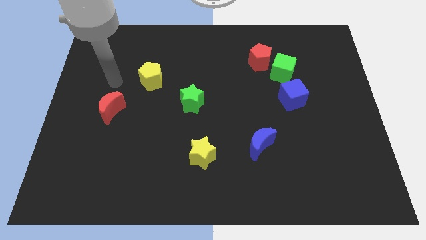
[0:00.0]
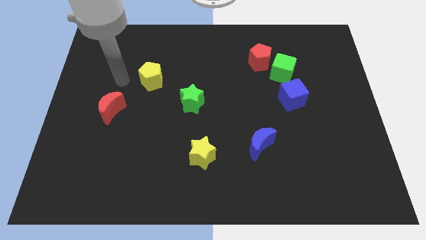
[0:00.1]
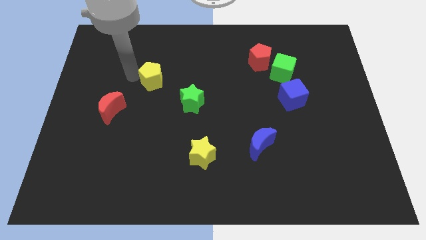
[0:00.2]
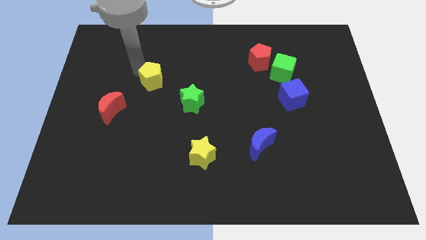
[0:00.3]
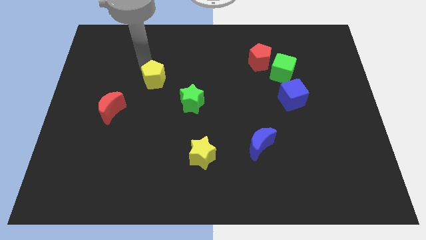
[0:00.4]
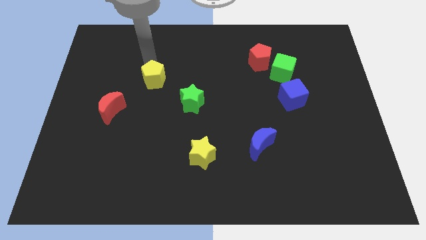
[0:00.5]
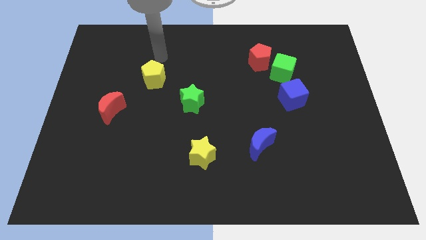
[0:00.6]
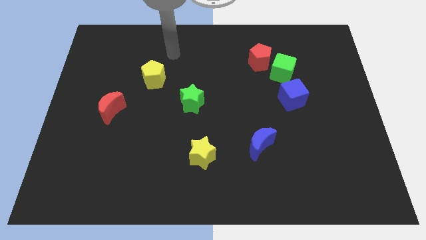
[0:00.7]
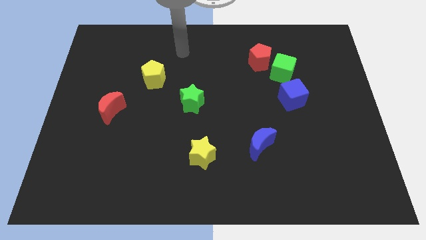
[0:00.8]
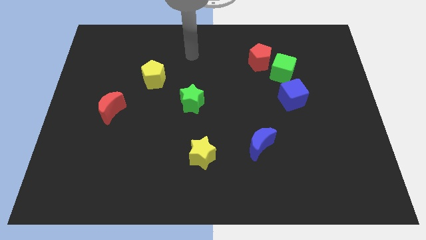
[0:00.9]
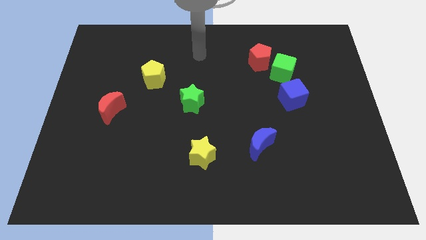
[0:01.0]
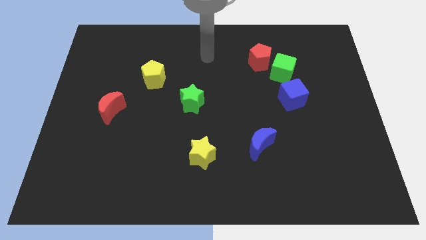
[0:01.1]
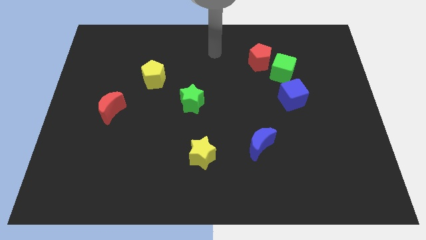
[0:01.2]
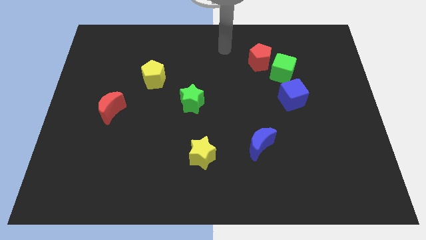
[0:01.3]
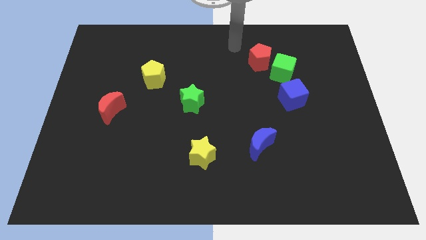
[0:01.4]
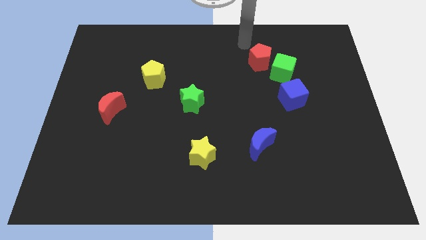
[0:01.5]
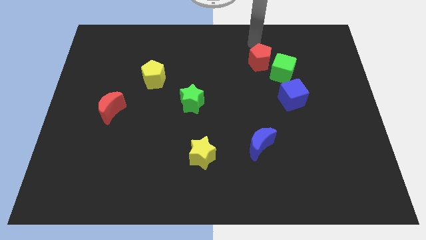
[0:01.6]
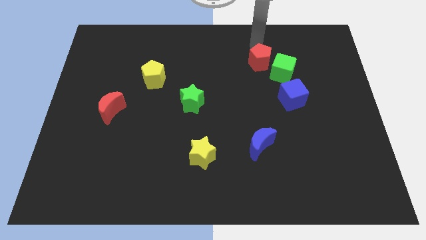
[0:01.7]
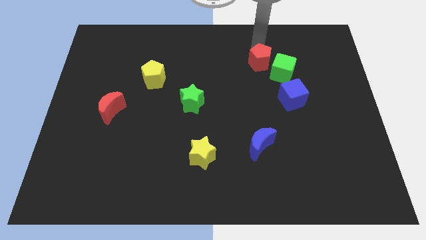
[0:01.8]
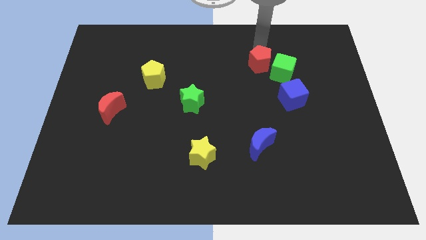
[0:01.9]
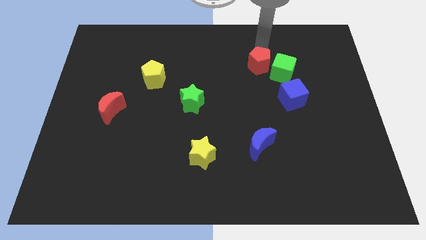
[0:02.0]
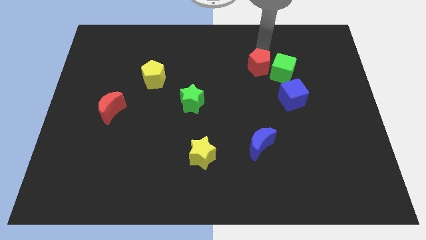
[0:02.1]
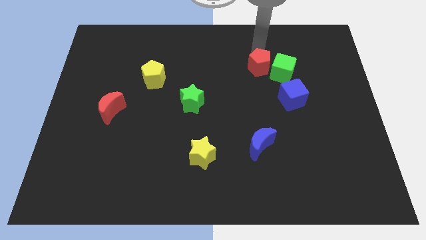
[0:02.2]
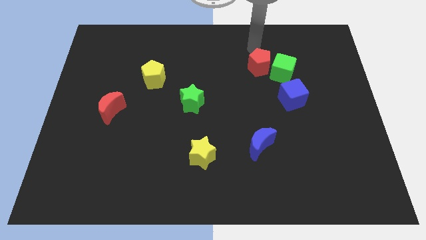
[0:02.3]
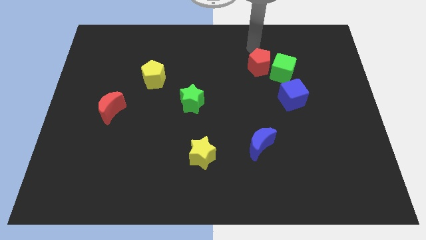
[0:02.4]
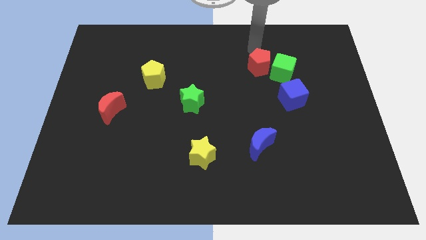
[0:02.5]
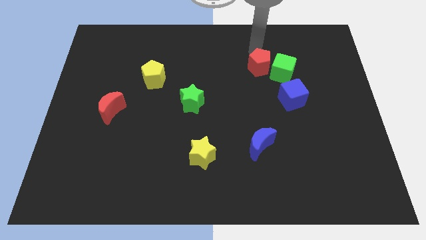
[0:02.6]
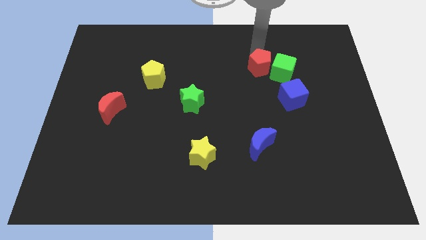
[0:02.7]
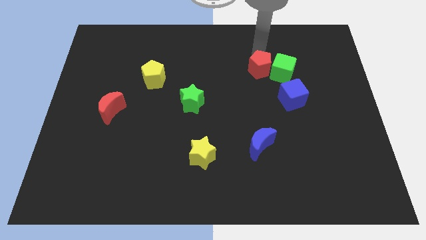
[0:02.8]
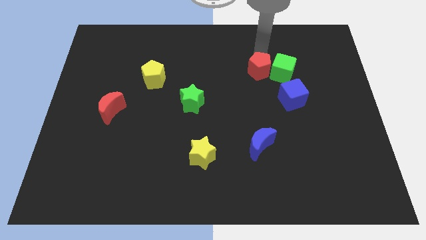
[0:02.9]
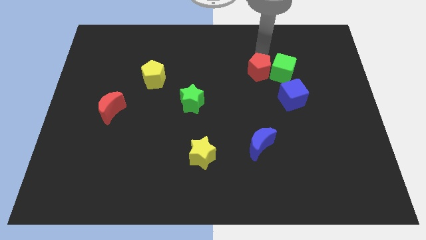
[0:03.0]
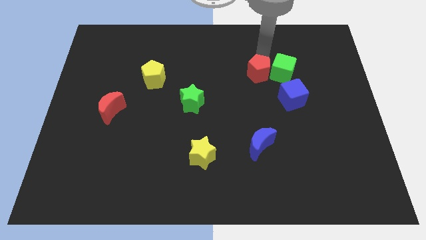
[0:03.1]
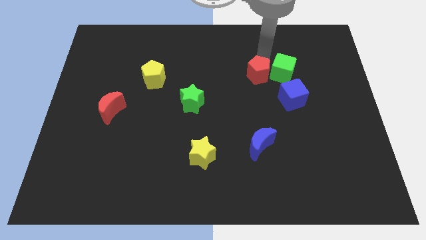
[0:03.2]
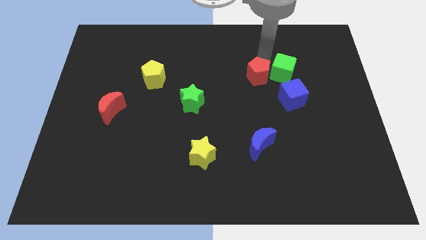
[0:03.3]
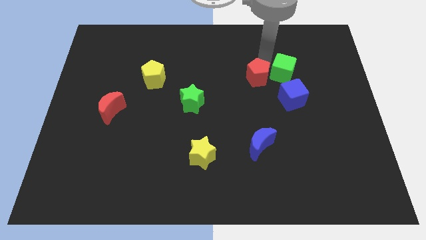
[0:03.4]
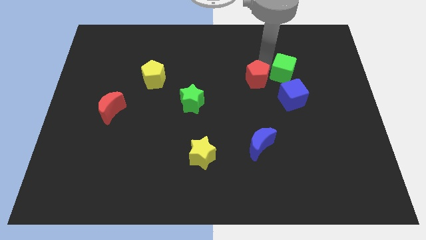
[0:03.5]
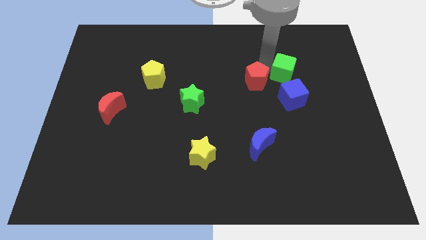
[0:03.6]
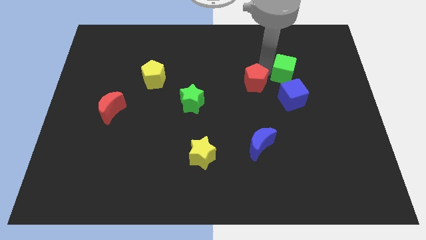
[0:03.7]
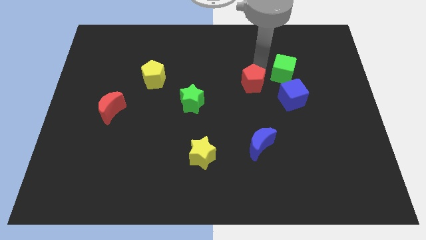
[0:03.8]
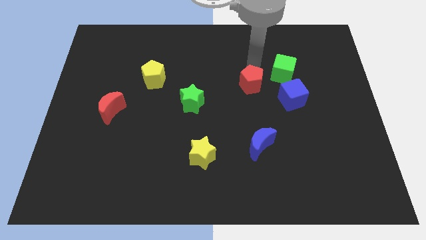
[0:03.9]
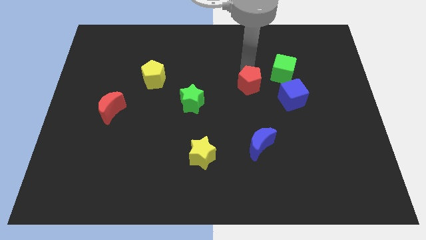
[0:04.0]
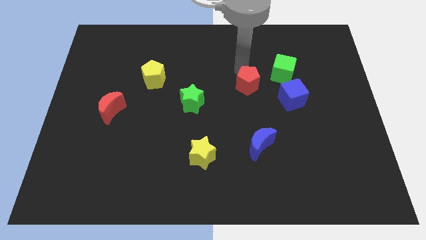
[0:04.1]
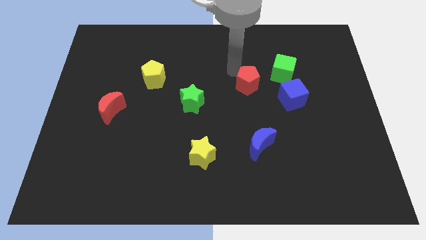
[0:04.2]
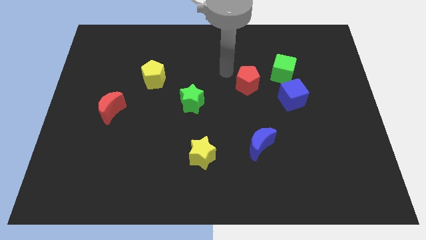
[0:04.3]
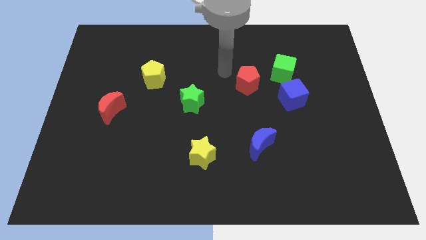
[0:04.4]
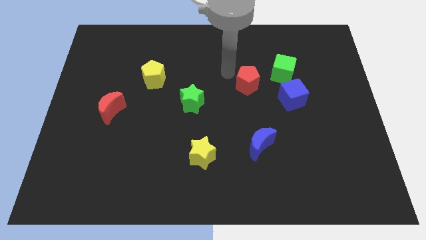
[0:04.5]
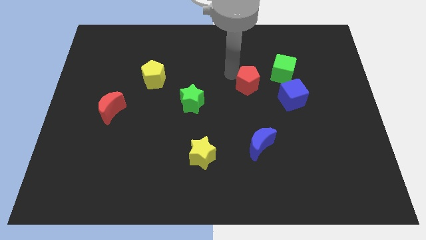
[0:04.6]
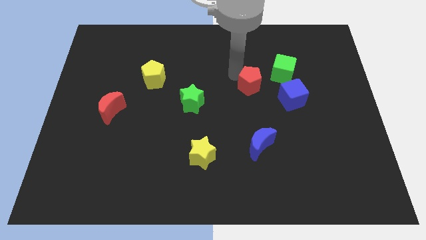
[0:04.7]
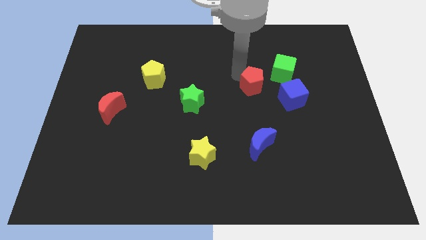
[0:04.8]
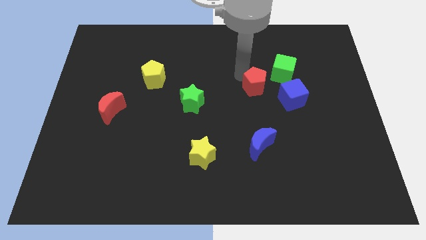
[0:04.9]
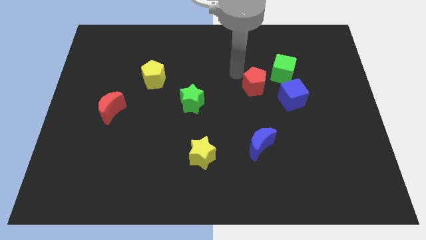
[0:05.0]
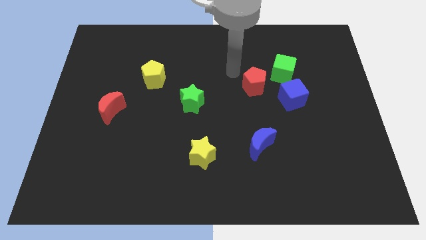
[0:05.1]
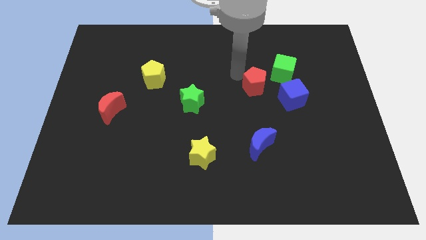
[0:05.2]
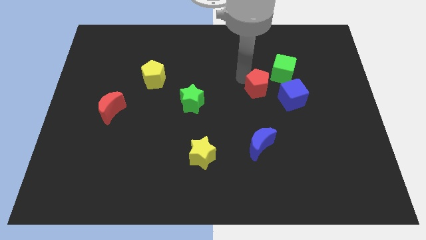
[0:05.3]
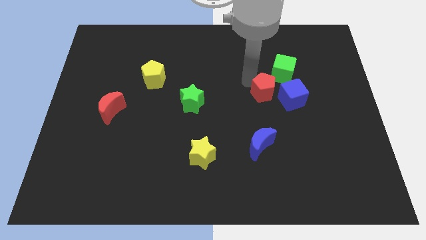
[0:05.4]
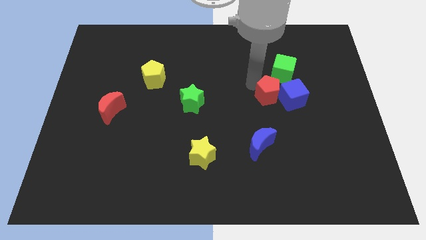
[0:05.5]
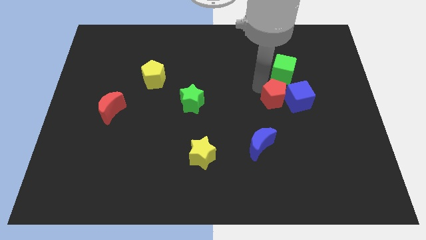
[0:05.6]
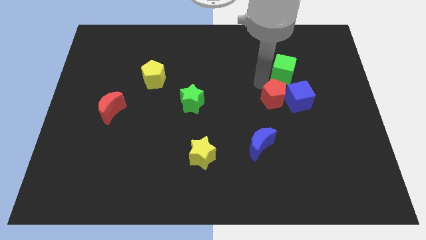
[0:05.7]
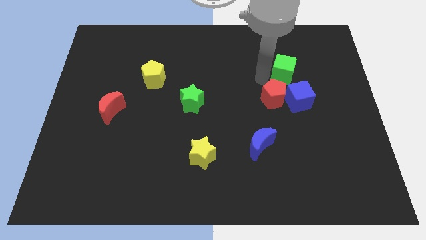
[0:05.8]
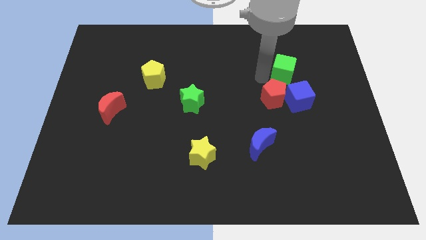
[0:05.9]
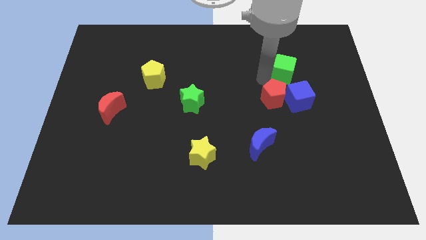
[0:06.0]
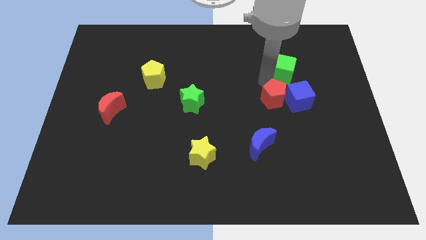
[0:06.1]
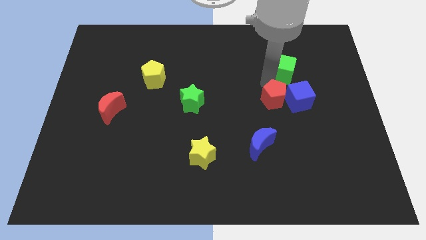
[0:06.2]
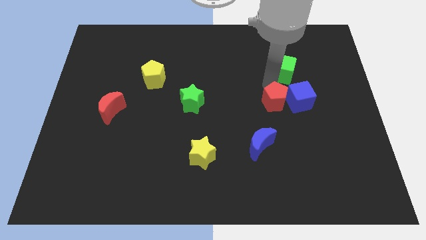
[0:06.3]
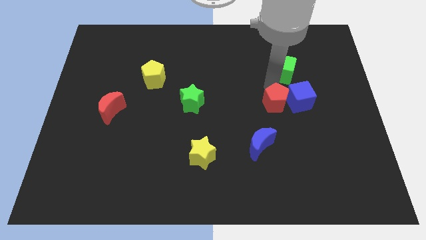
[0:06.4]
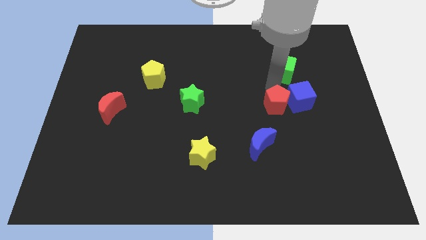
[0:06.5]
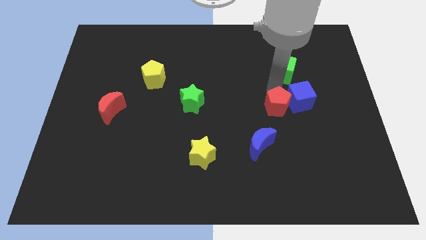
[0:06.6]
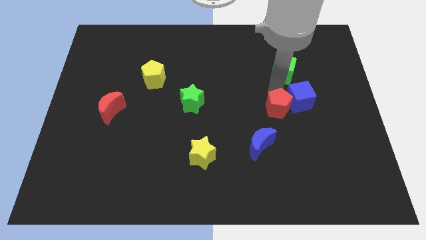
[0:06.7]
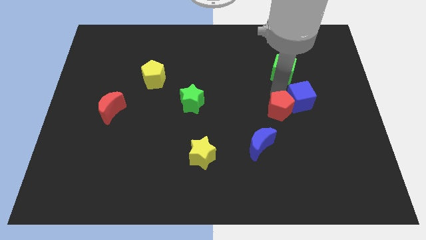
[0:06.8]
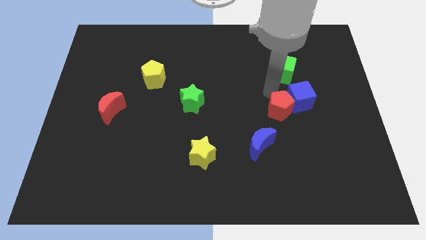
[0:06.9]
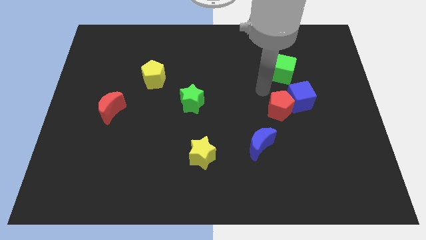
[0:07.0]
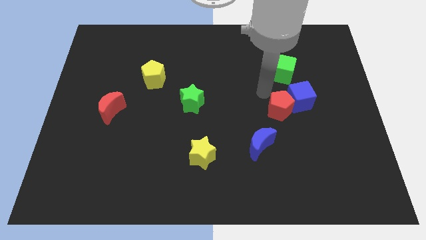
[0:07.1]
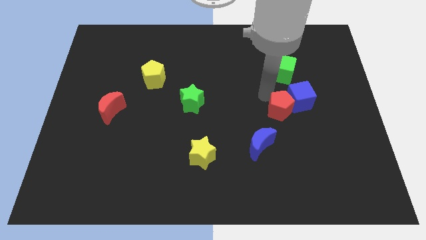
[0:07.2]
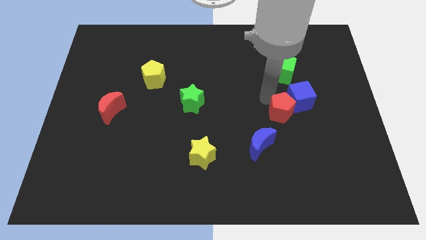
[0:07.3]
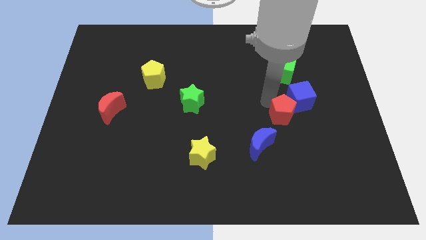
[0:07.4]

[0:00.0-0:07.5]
put the red pentagon to the bottom side of the blue cube
